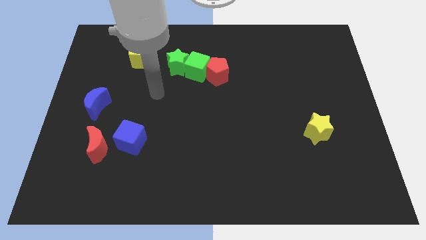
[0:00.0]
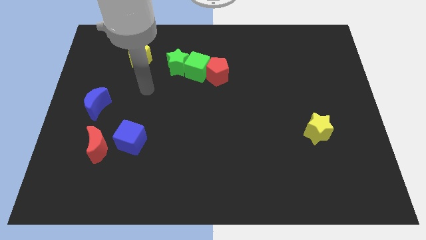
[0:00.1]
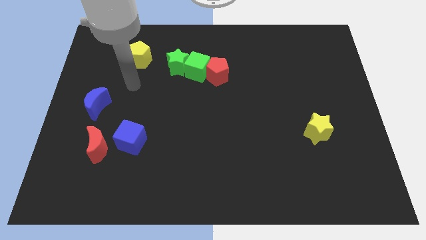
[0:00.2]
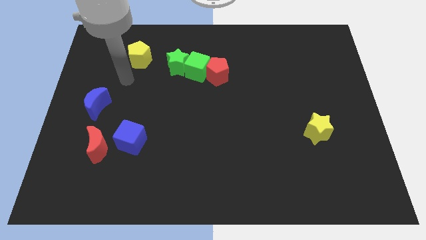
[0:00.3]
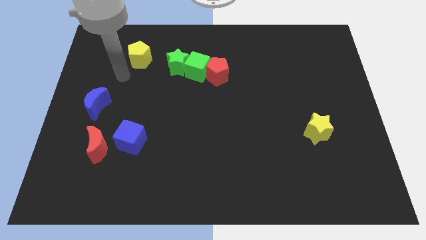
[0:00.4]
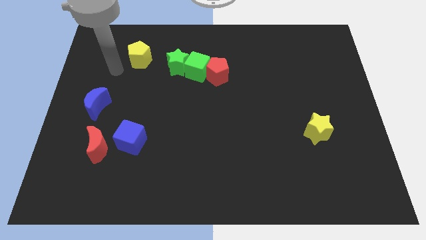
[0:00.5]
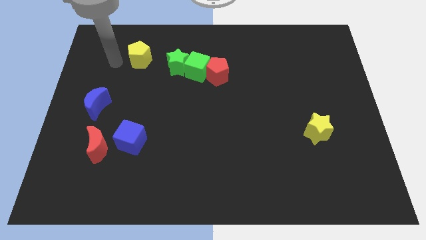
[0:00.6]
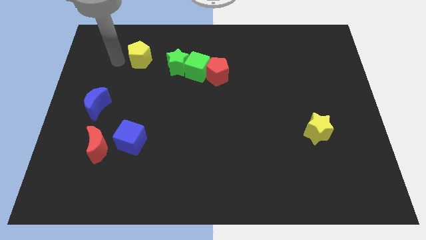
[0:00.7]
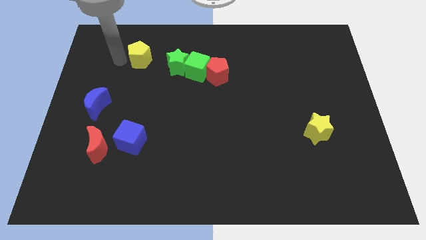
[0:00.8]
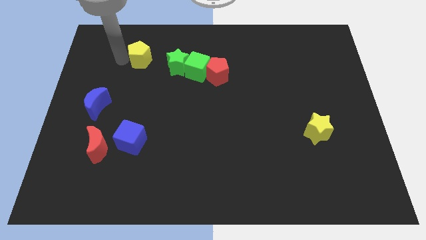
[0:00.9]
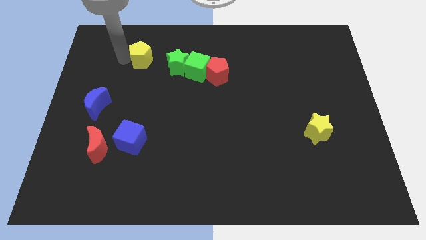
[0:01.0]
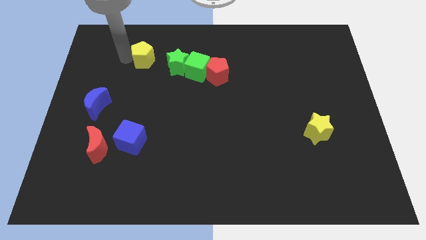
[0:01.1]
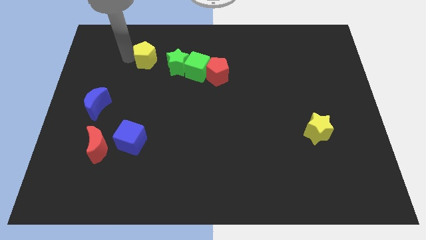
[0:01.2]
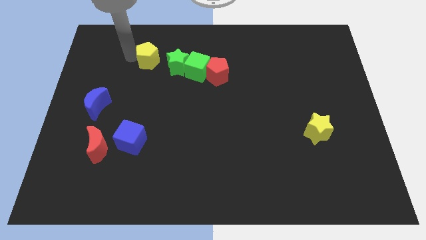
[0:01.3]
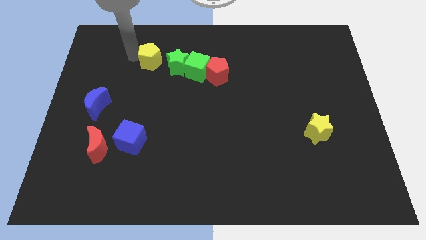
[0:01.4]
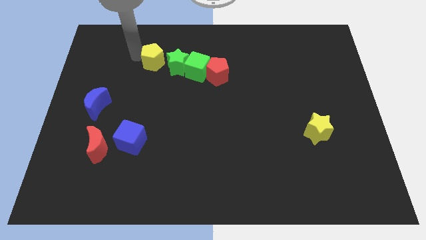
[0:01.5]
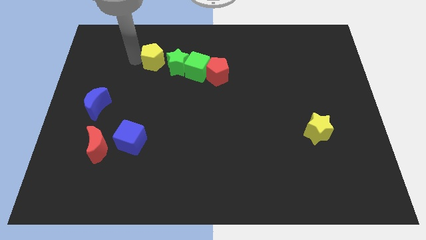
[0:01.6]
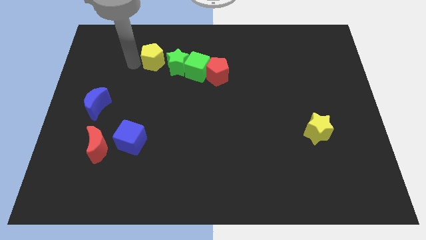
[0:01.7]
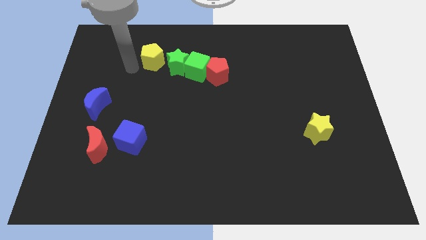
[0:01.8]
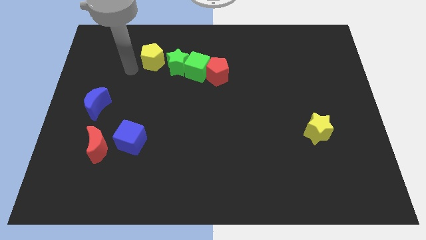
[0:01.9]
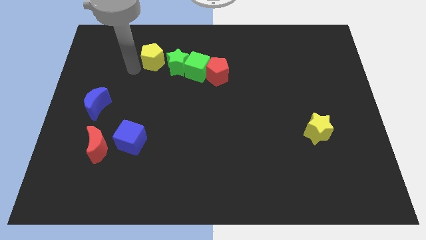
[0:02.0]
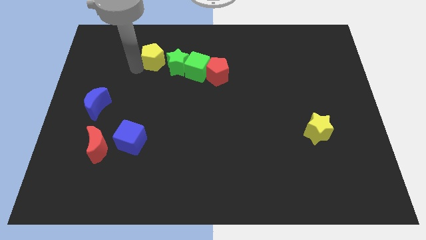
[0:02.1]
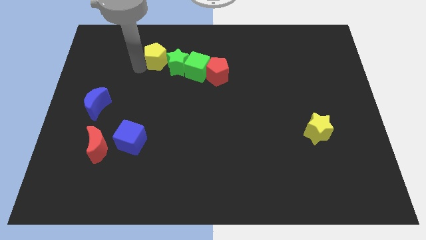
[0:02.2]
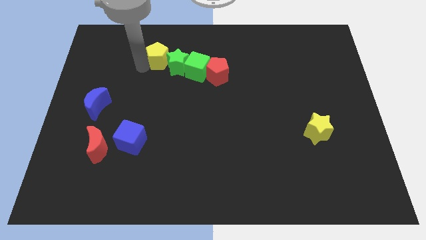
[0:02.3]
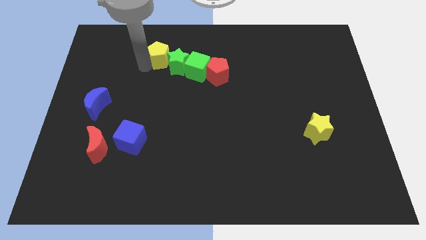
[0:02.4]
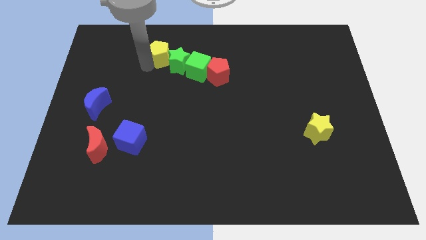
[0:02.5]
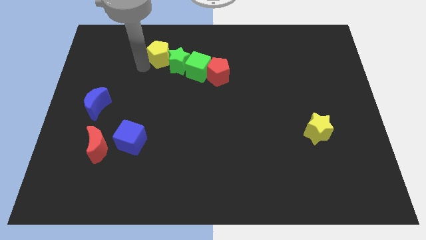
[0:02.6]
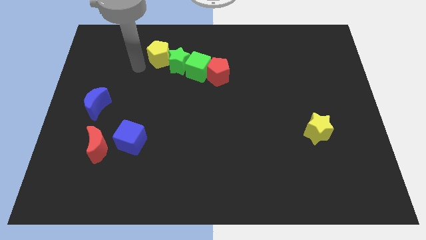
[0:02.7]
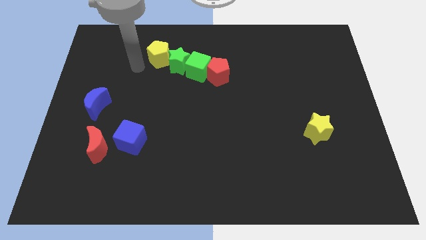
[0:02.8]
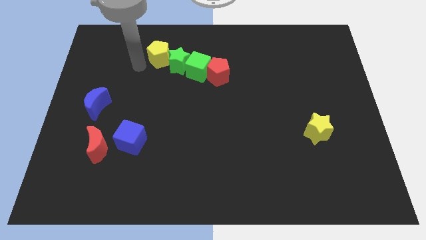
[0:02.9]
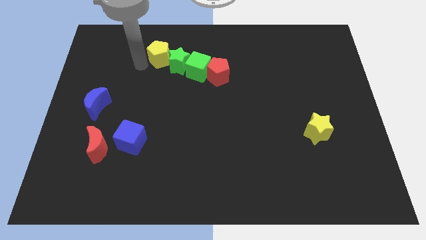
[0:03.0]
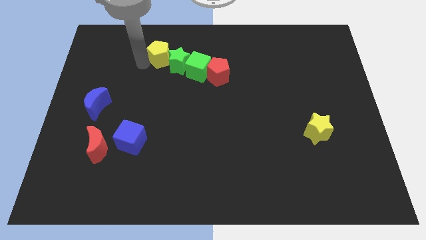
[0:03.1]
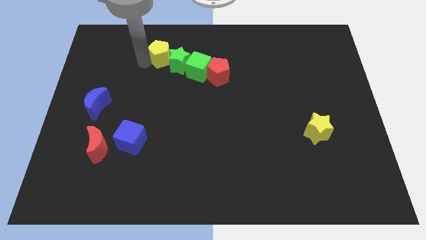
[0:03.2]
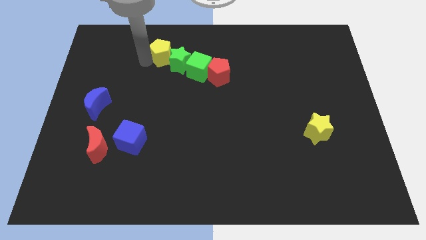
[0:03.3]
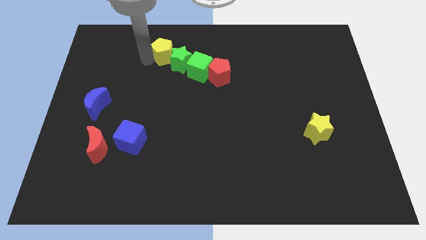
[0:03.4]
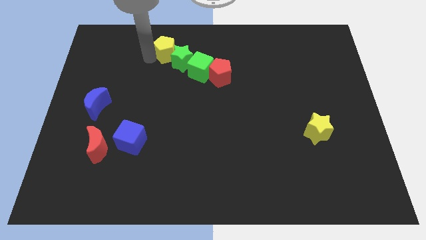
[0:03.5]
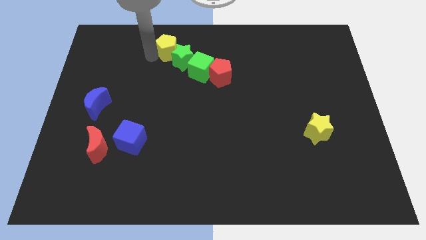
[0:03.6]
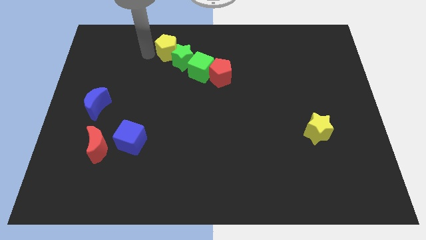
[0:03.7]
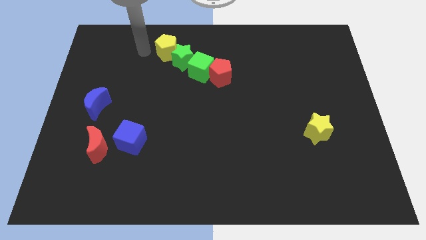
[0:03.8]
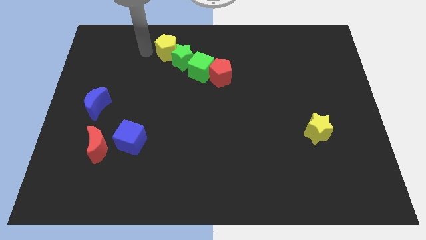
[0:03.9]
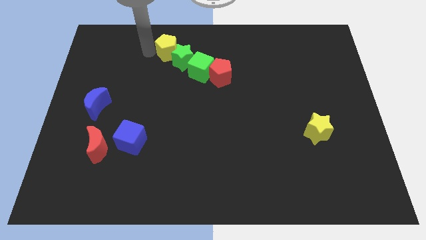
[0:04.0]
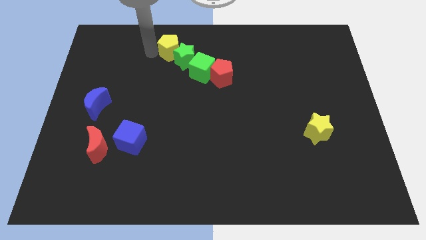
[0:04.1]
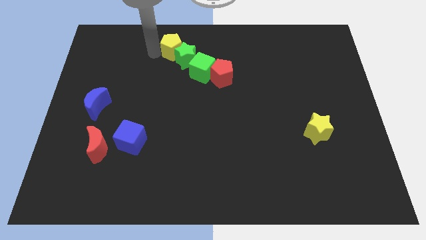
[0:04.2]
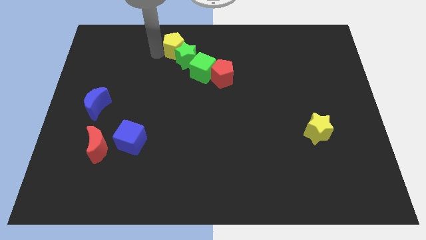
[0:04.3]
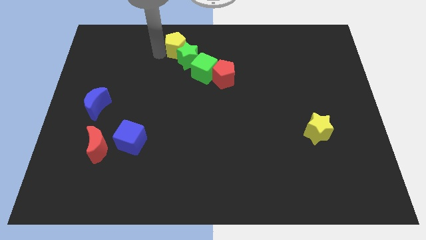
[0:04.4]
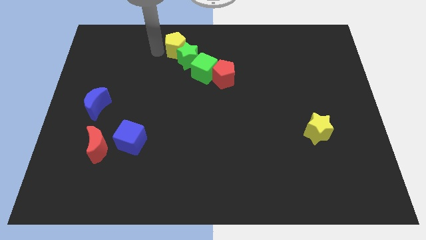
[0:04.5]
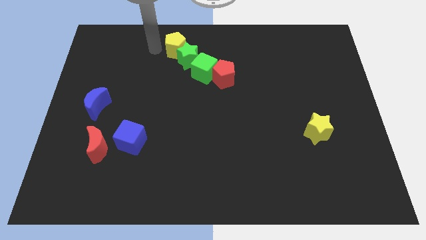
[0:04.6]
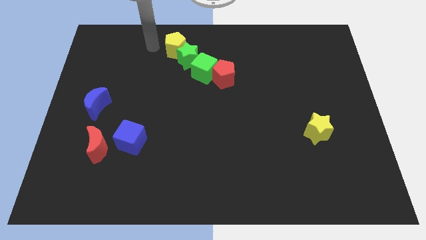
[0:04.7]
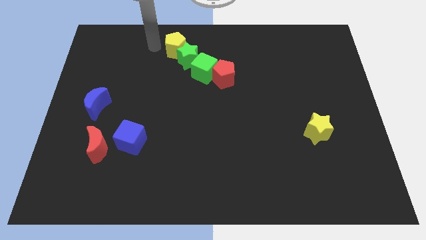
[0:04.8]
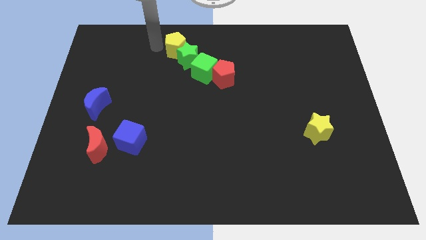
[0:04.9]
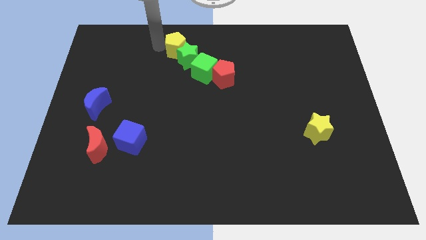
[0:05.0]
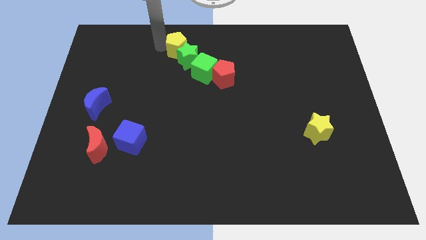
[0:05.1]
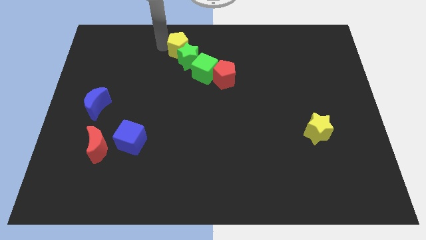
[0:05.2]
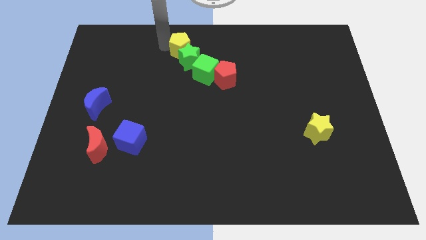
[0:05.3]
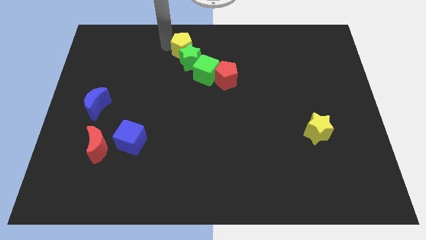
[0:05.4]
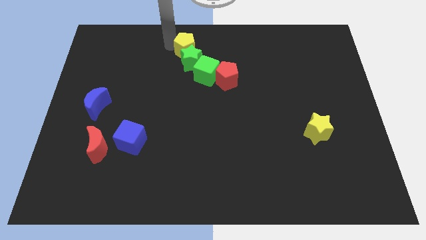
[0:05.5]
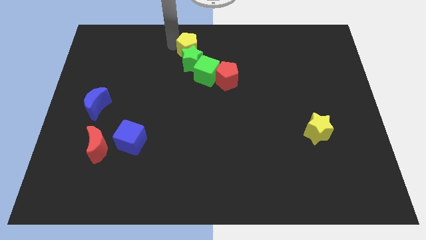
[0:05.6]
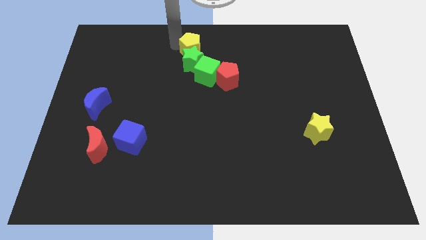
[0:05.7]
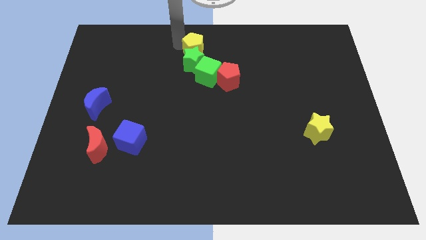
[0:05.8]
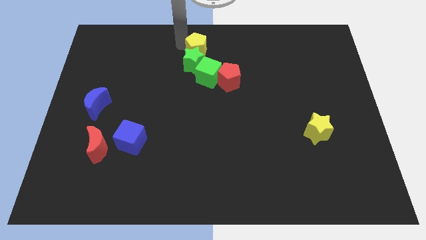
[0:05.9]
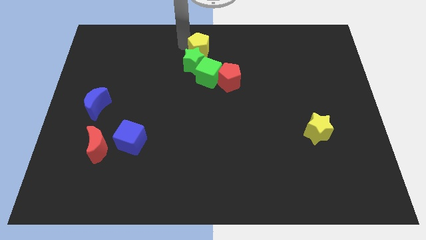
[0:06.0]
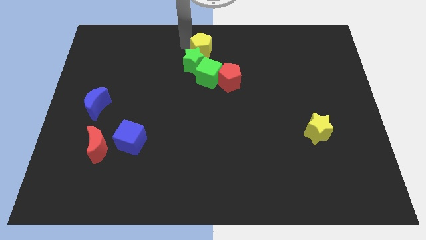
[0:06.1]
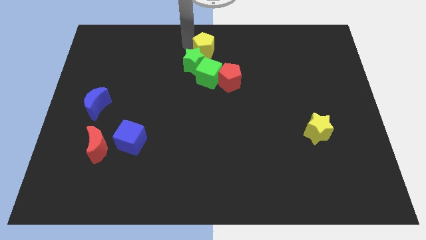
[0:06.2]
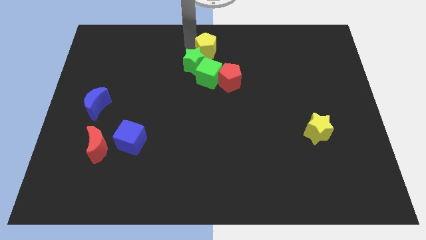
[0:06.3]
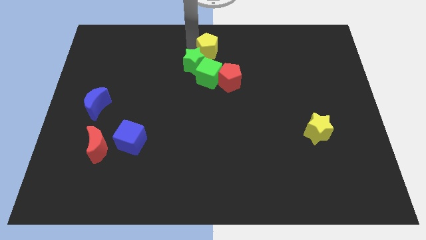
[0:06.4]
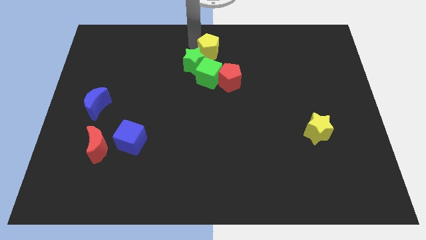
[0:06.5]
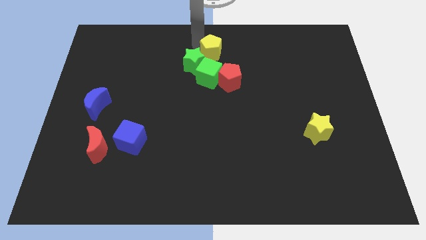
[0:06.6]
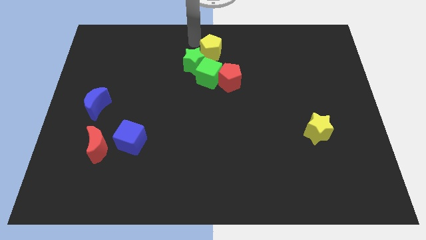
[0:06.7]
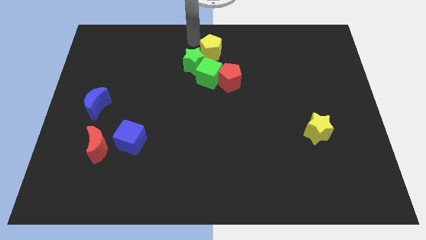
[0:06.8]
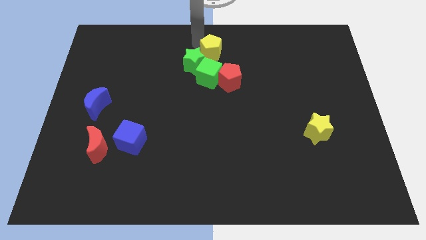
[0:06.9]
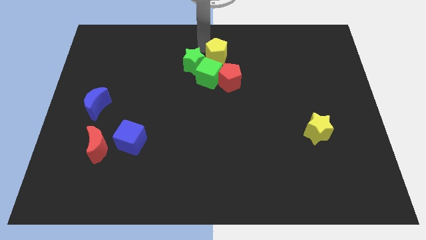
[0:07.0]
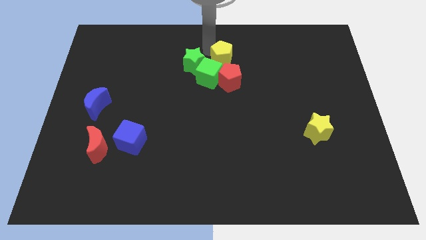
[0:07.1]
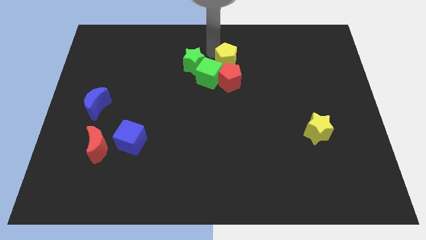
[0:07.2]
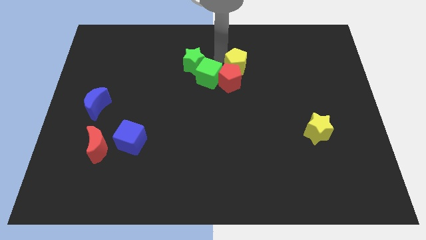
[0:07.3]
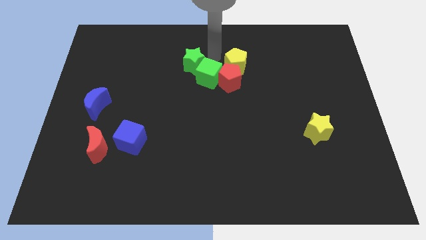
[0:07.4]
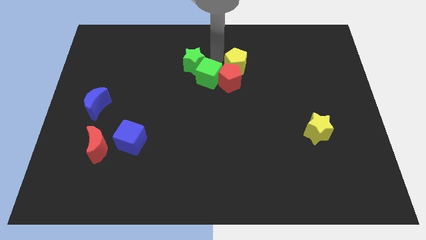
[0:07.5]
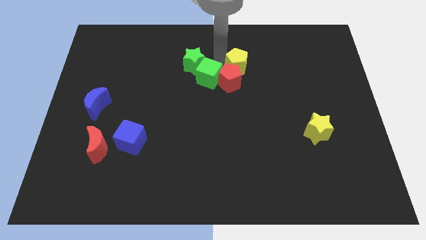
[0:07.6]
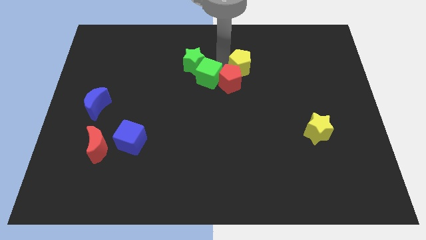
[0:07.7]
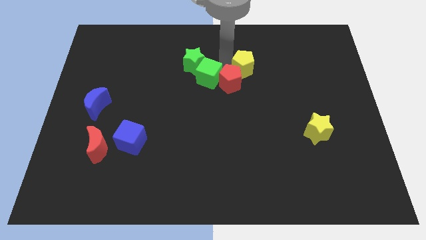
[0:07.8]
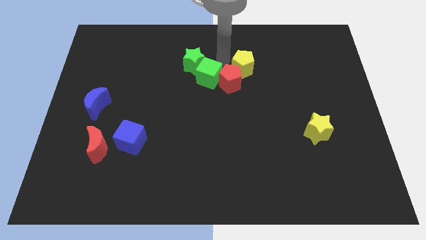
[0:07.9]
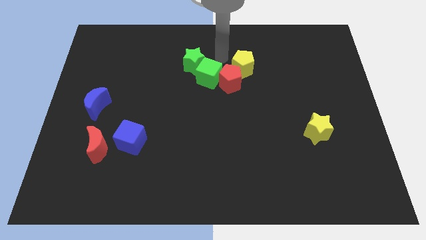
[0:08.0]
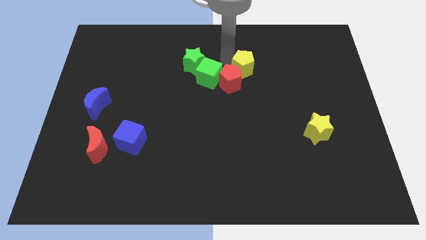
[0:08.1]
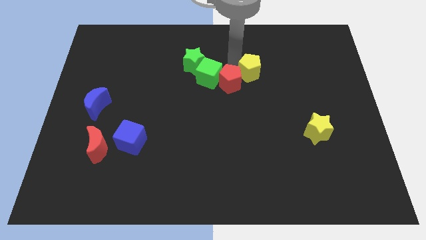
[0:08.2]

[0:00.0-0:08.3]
push the yellow pentagon to the right of the red pentagon
